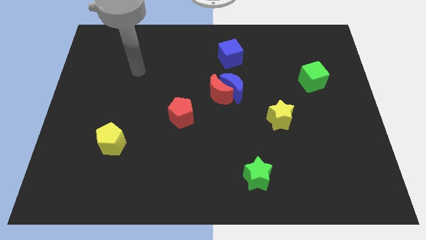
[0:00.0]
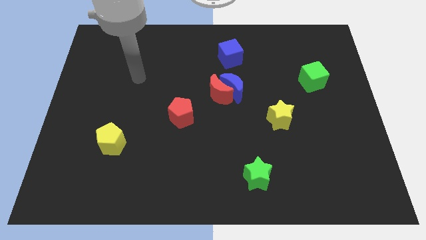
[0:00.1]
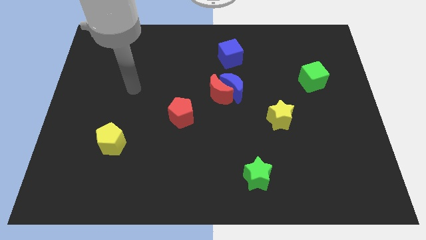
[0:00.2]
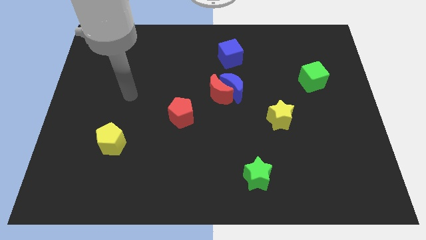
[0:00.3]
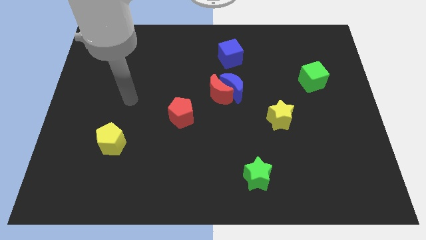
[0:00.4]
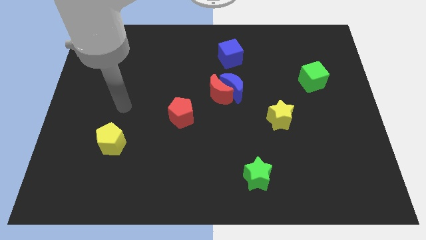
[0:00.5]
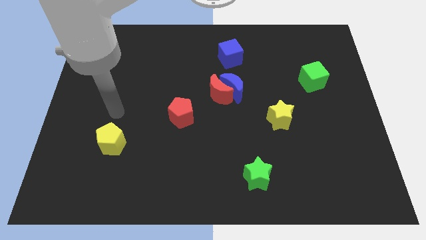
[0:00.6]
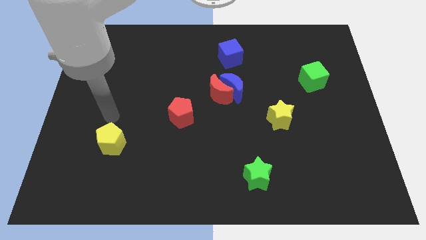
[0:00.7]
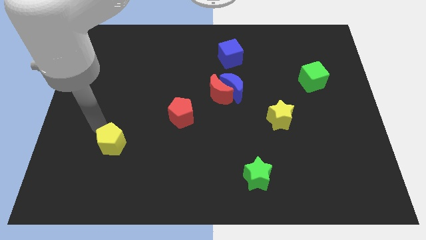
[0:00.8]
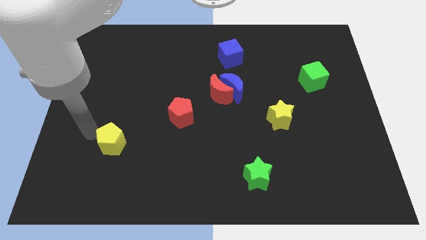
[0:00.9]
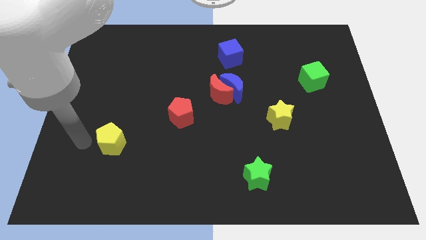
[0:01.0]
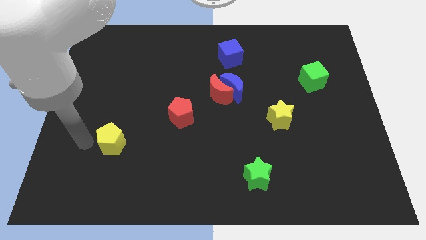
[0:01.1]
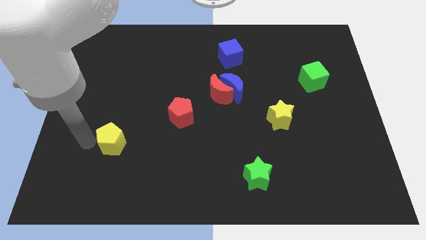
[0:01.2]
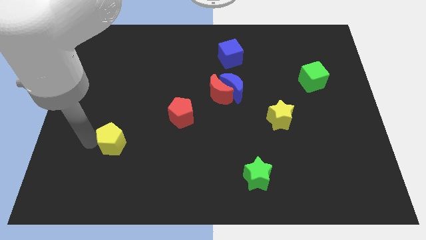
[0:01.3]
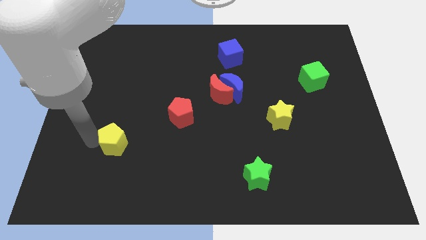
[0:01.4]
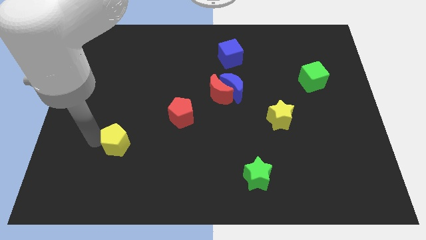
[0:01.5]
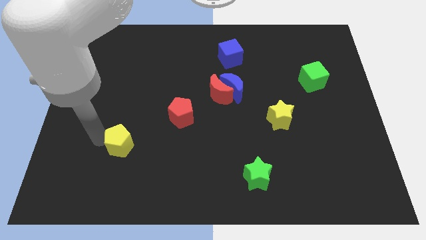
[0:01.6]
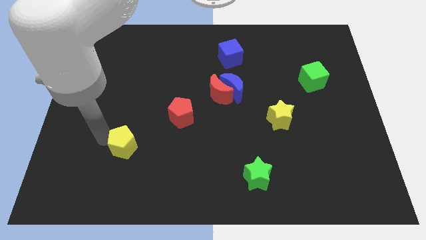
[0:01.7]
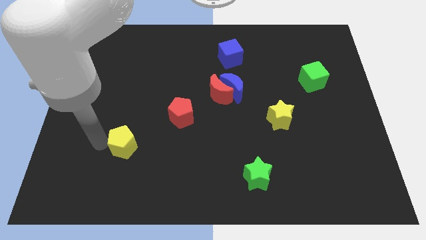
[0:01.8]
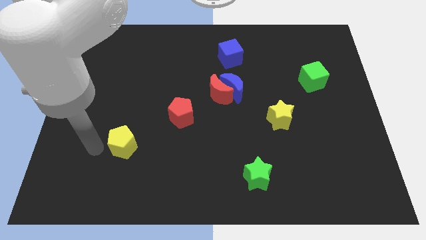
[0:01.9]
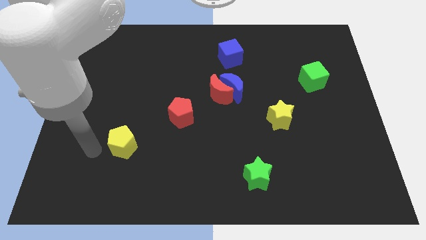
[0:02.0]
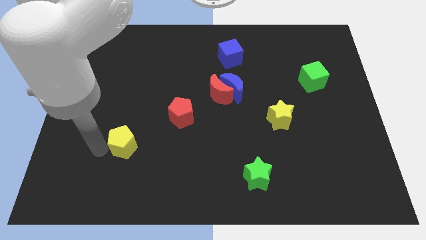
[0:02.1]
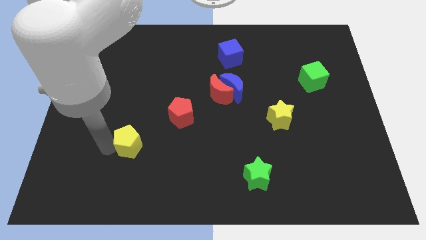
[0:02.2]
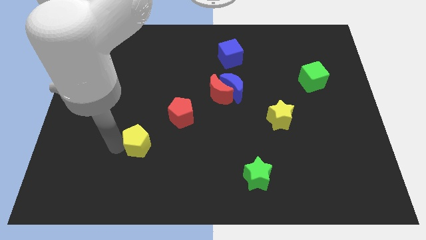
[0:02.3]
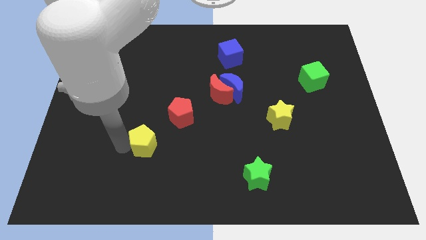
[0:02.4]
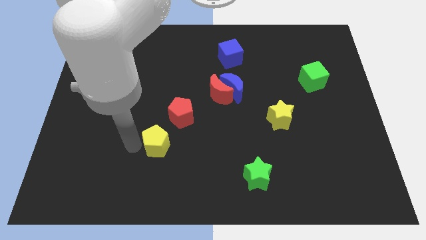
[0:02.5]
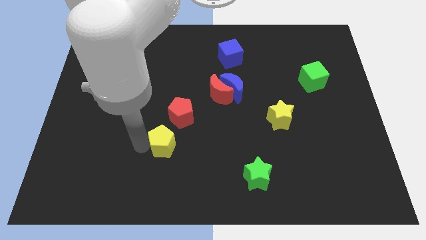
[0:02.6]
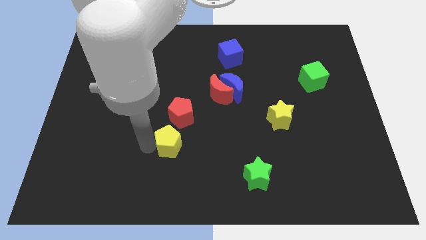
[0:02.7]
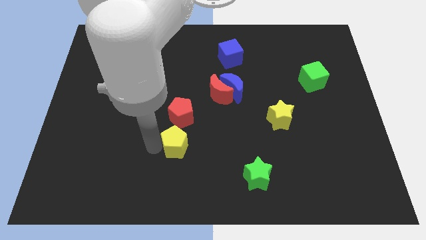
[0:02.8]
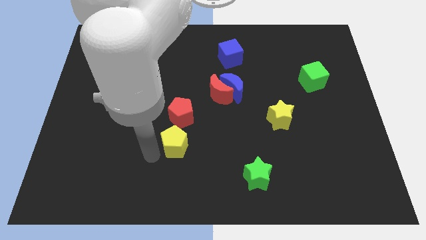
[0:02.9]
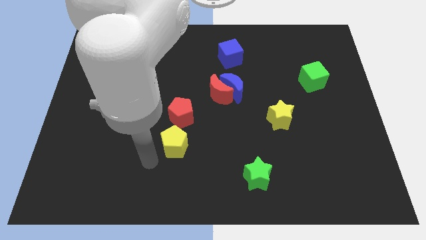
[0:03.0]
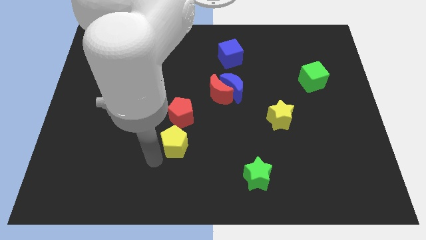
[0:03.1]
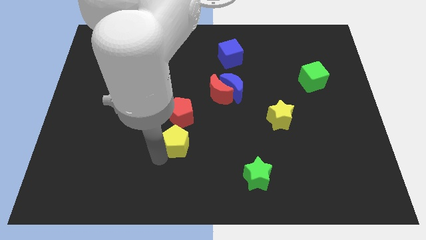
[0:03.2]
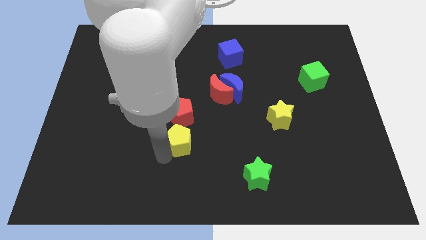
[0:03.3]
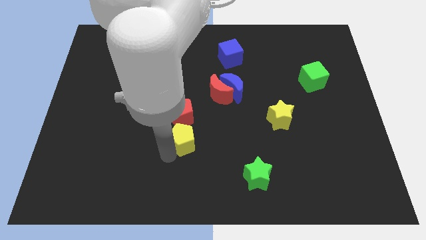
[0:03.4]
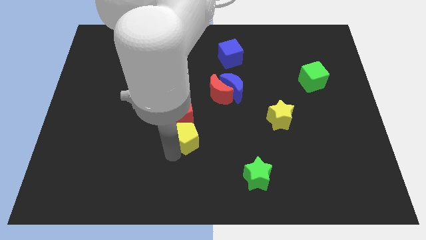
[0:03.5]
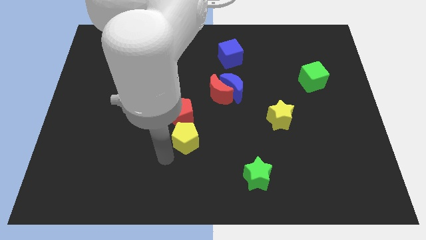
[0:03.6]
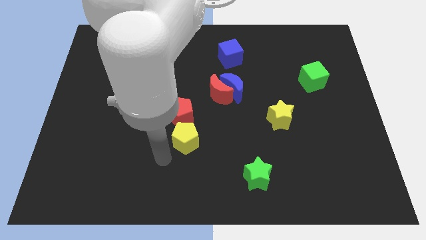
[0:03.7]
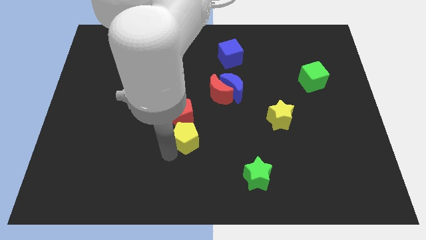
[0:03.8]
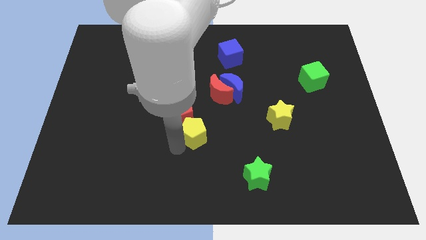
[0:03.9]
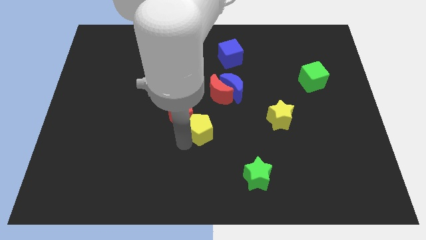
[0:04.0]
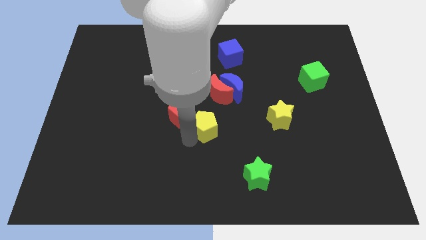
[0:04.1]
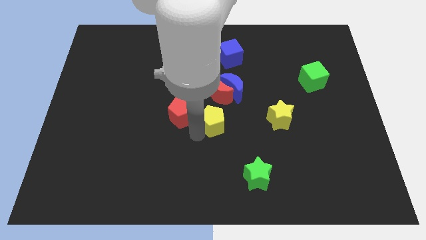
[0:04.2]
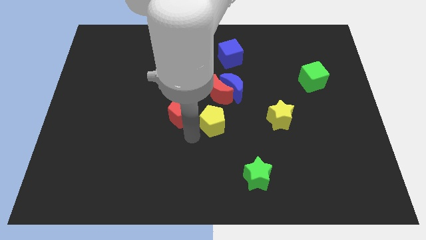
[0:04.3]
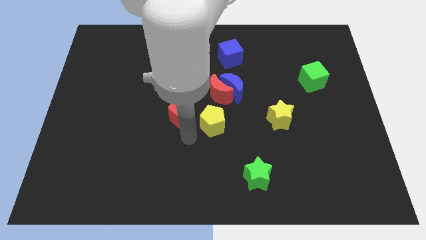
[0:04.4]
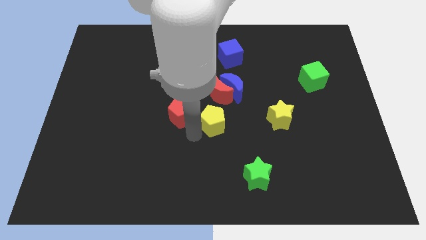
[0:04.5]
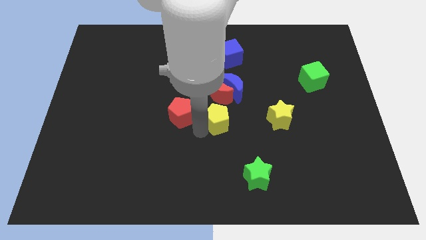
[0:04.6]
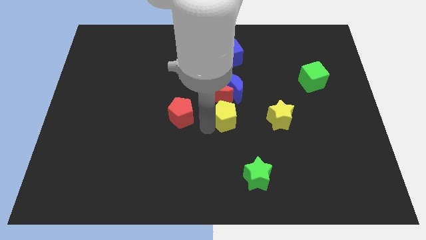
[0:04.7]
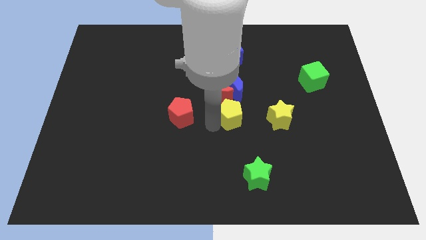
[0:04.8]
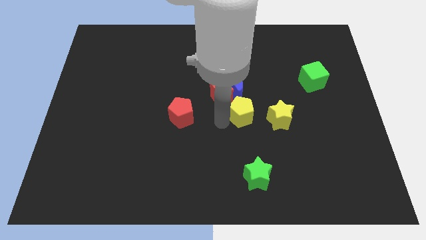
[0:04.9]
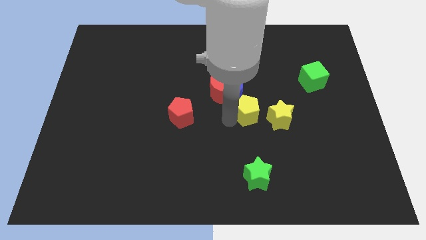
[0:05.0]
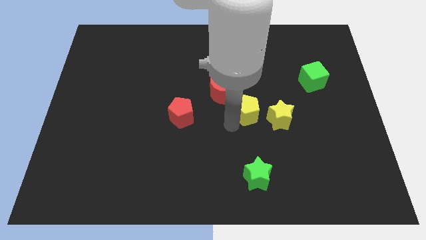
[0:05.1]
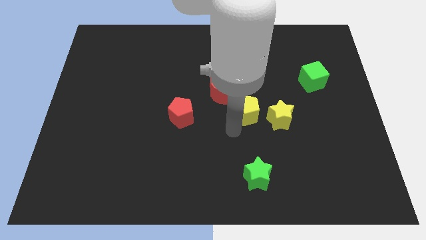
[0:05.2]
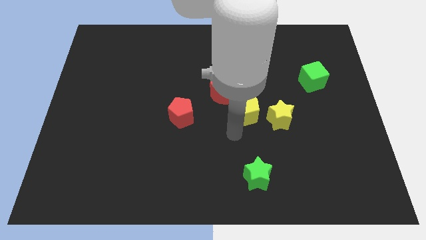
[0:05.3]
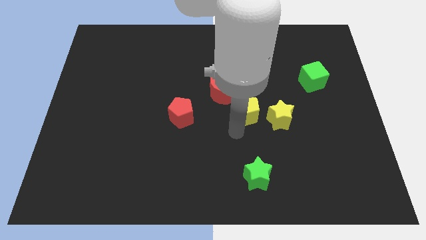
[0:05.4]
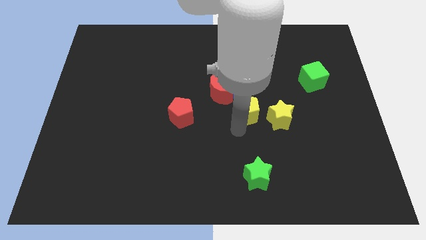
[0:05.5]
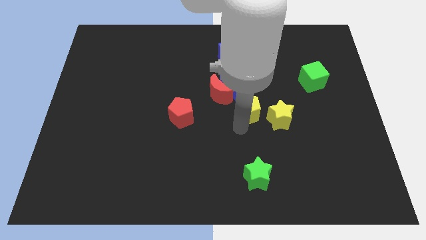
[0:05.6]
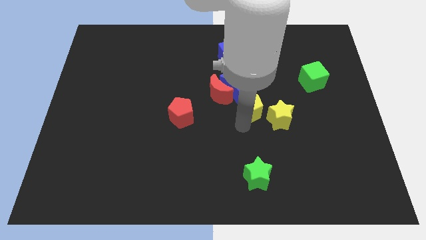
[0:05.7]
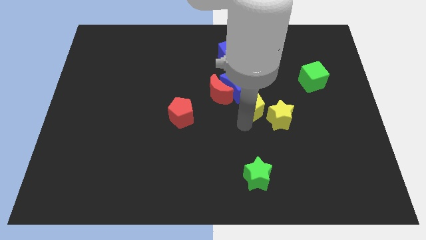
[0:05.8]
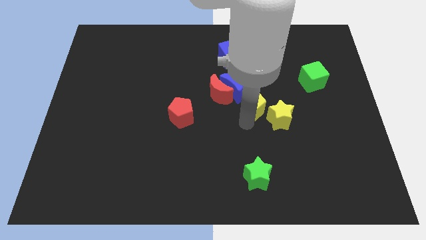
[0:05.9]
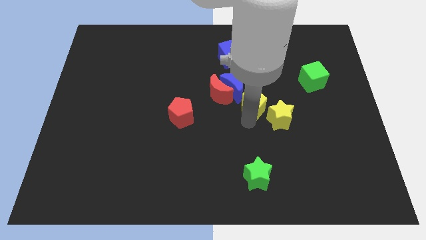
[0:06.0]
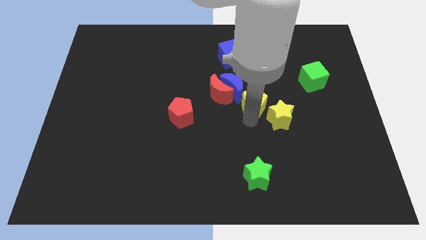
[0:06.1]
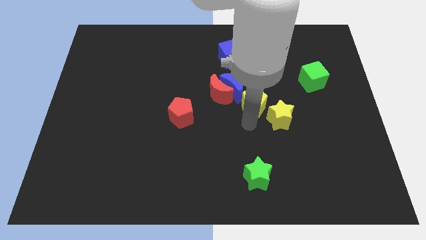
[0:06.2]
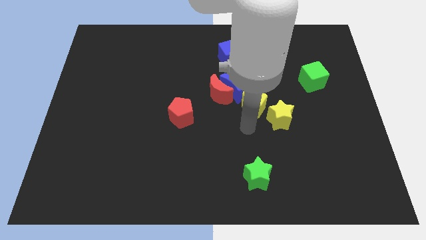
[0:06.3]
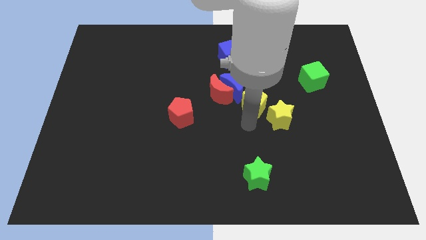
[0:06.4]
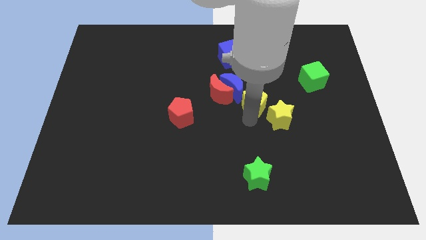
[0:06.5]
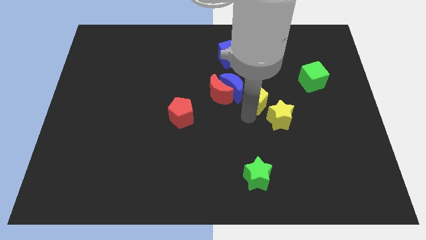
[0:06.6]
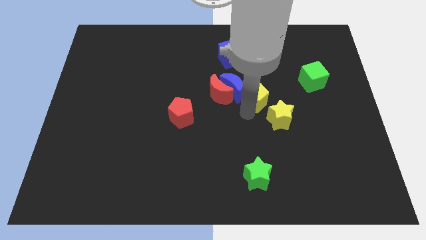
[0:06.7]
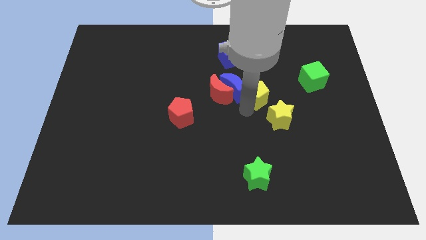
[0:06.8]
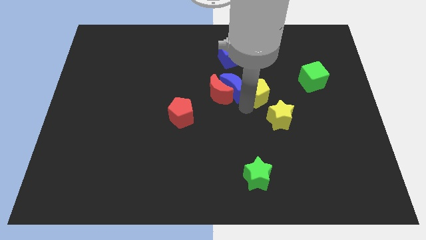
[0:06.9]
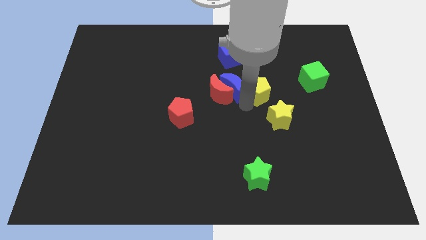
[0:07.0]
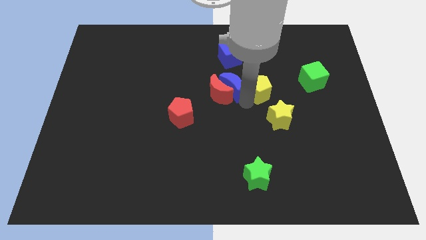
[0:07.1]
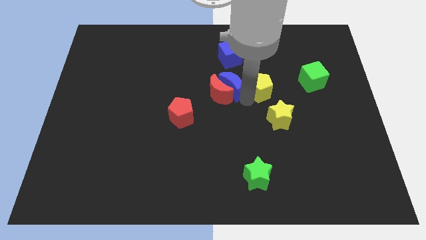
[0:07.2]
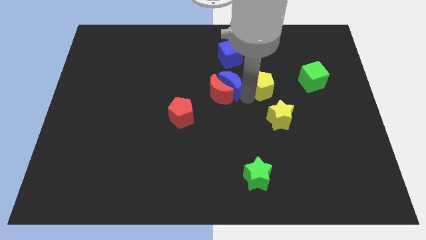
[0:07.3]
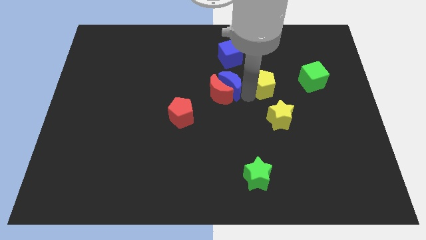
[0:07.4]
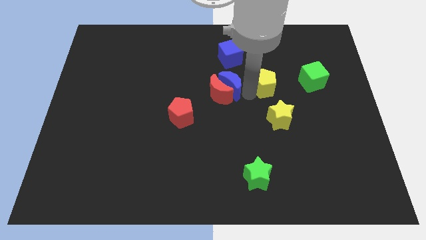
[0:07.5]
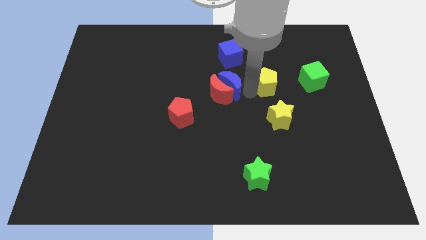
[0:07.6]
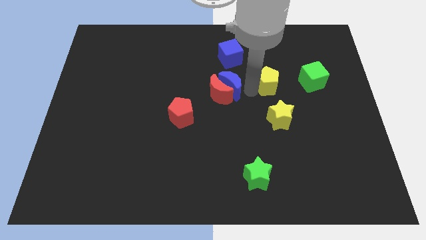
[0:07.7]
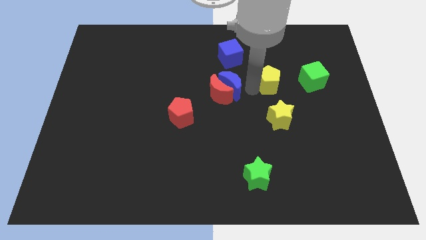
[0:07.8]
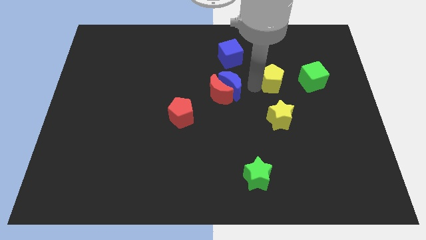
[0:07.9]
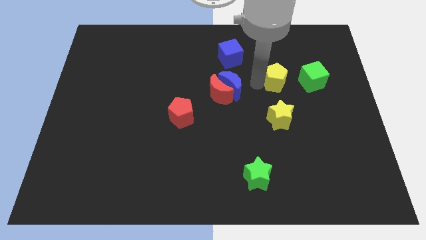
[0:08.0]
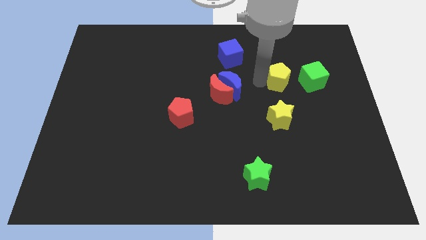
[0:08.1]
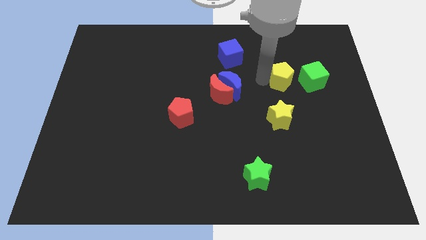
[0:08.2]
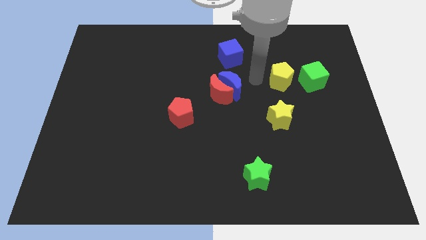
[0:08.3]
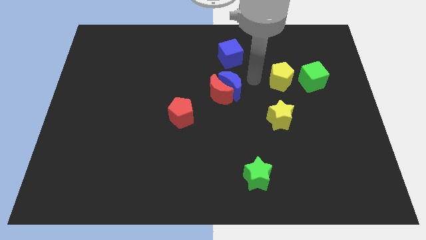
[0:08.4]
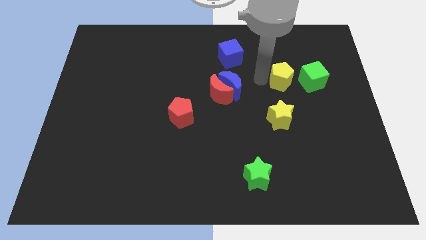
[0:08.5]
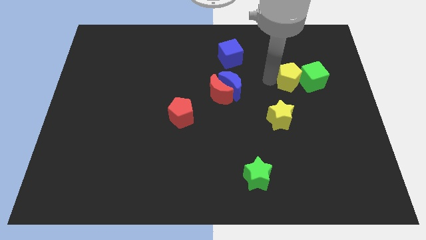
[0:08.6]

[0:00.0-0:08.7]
put the yellow pentagon next to the green cube
